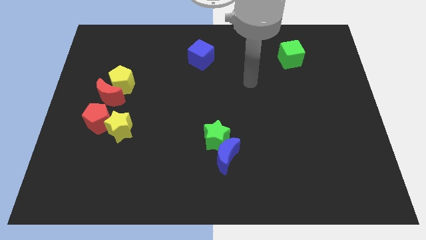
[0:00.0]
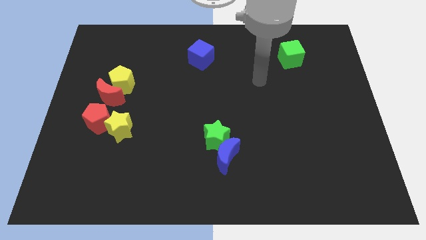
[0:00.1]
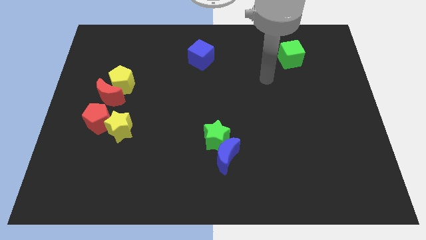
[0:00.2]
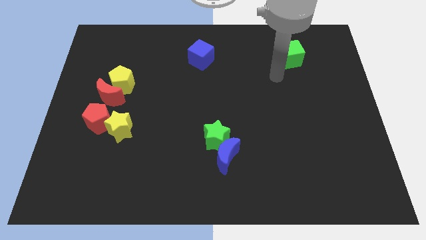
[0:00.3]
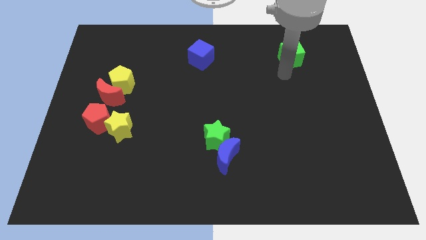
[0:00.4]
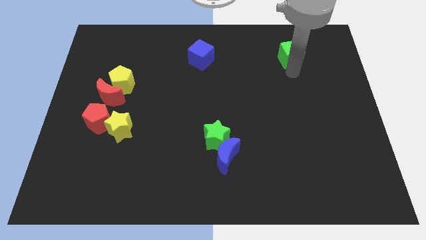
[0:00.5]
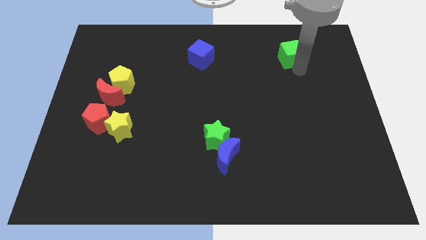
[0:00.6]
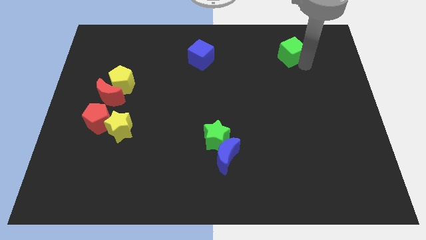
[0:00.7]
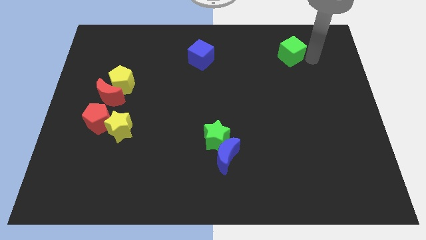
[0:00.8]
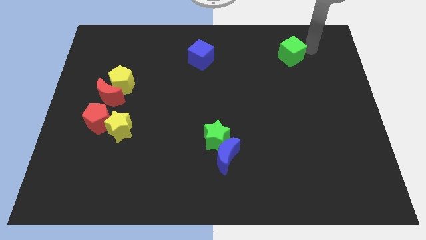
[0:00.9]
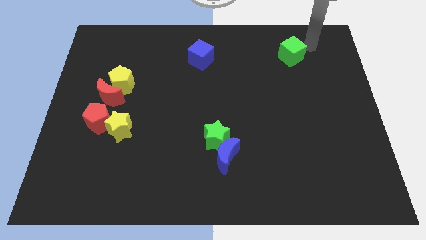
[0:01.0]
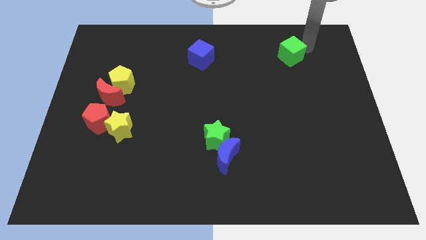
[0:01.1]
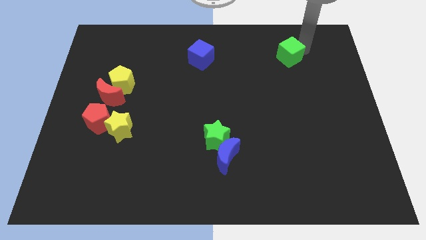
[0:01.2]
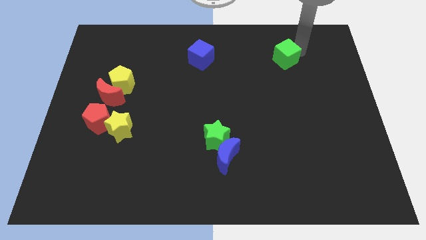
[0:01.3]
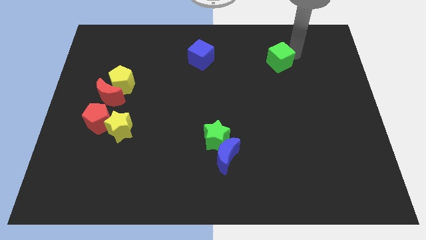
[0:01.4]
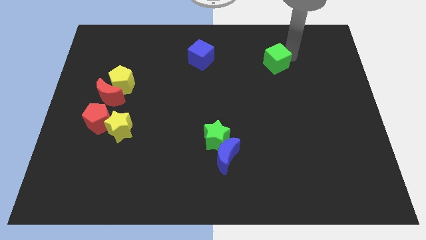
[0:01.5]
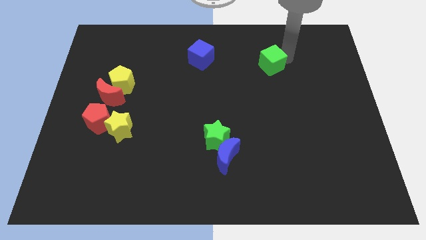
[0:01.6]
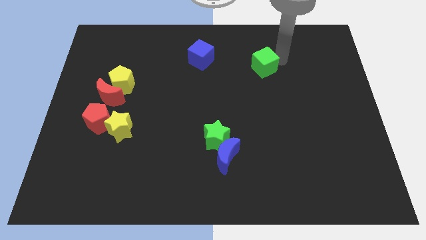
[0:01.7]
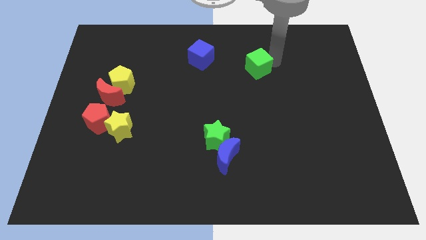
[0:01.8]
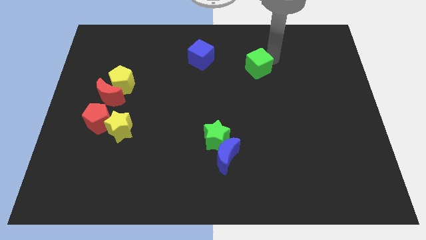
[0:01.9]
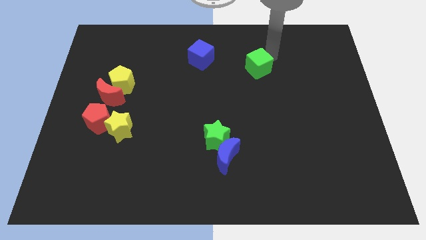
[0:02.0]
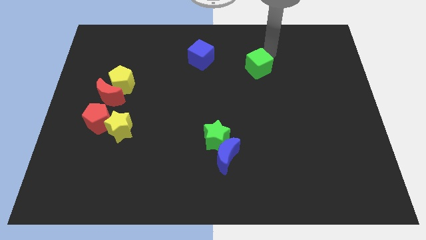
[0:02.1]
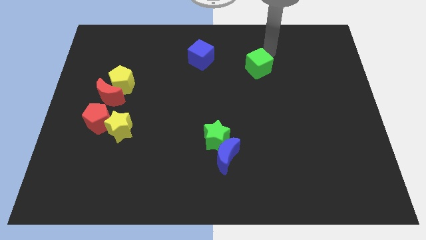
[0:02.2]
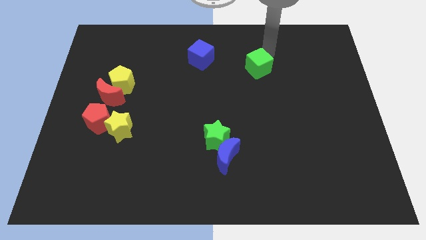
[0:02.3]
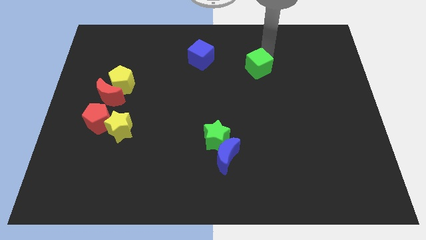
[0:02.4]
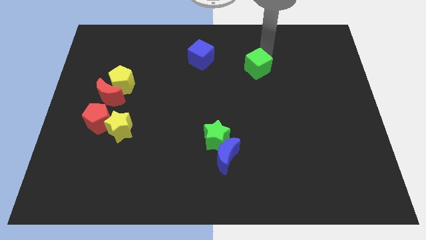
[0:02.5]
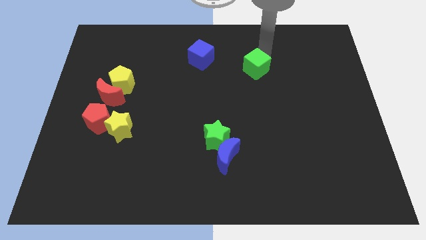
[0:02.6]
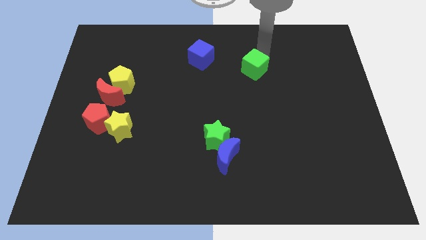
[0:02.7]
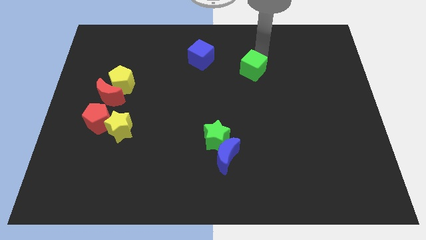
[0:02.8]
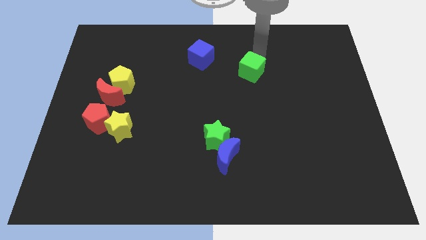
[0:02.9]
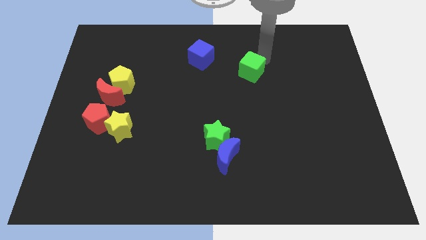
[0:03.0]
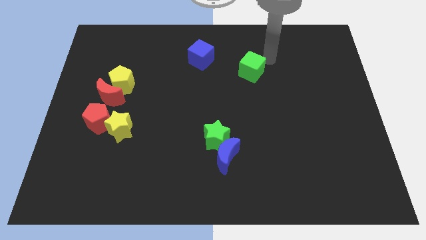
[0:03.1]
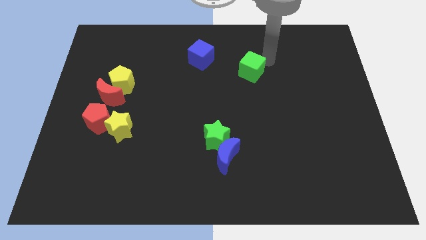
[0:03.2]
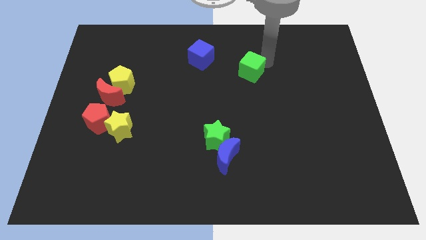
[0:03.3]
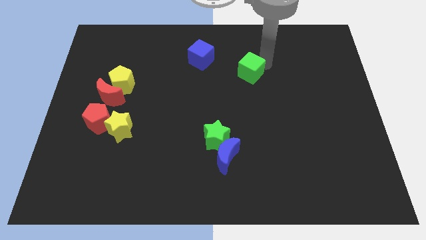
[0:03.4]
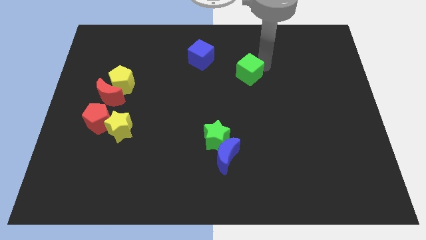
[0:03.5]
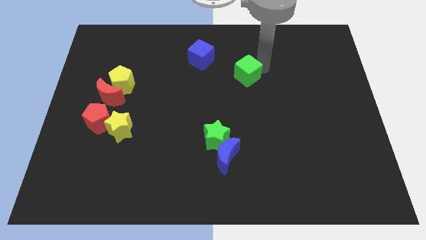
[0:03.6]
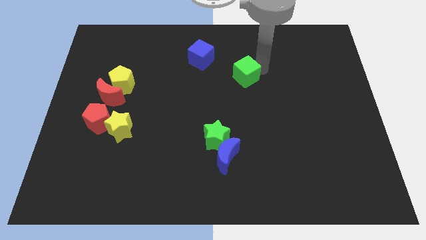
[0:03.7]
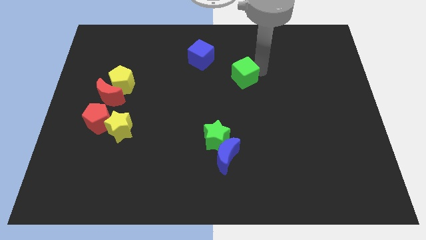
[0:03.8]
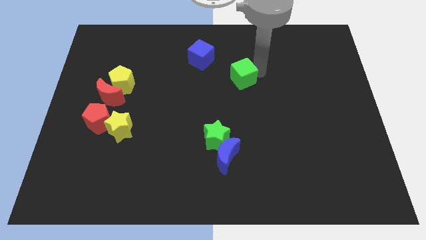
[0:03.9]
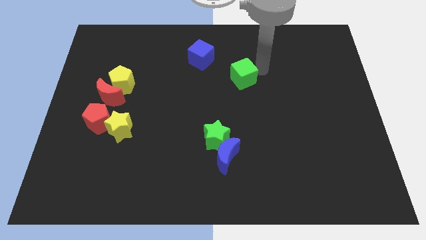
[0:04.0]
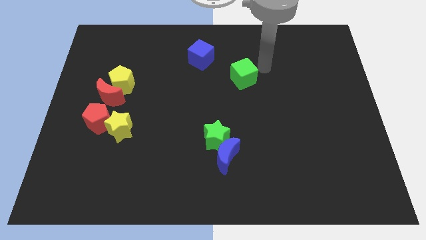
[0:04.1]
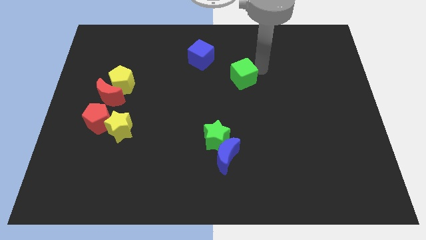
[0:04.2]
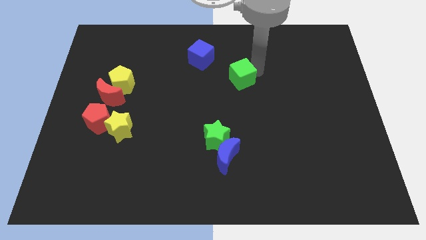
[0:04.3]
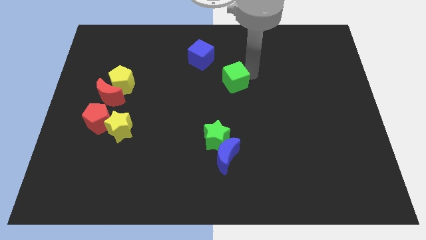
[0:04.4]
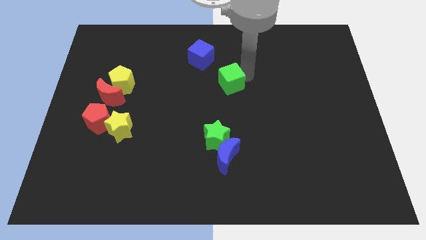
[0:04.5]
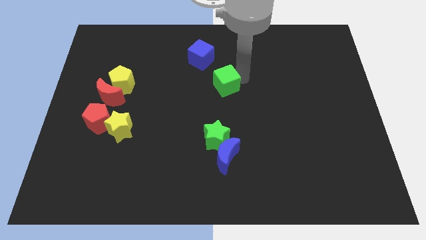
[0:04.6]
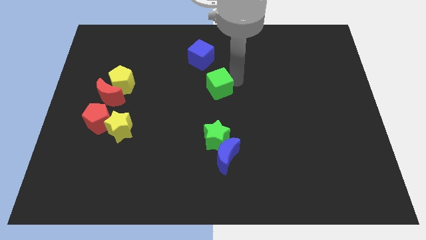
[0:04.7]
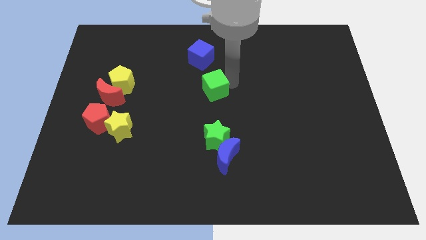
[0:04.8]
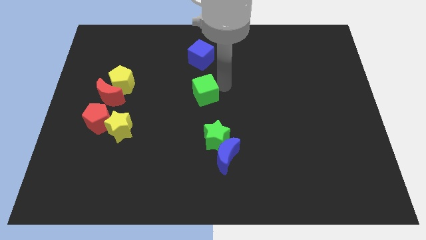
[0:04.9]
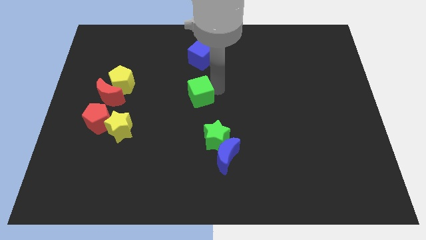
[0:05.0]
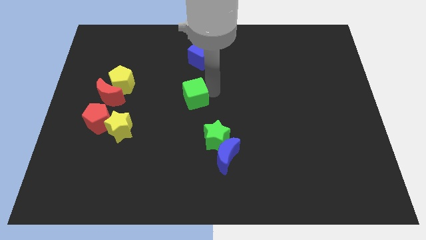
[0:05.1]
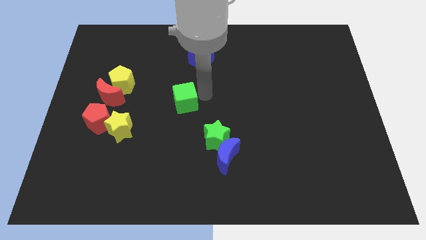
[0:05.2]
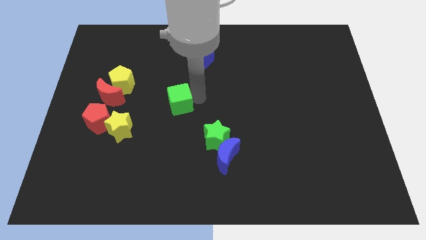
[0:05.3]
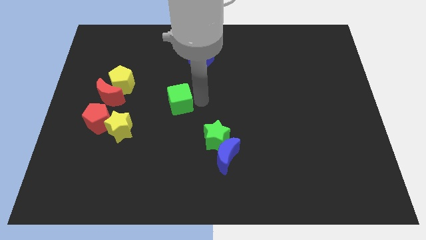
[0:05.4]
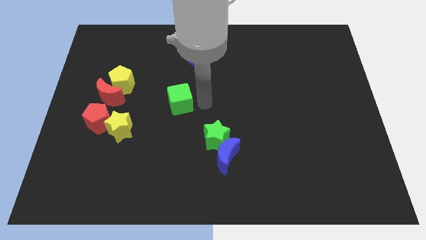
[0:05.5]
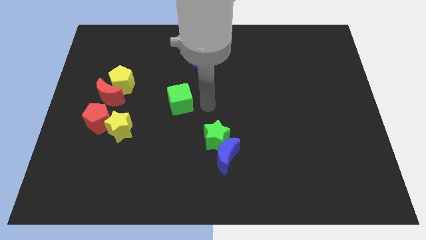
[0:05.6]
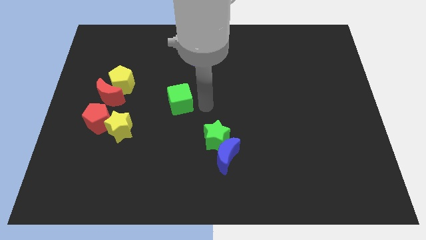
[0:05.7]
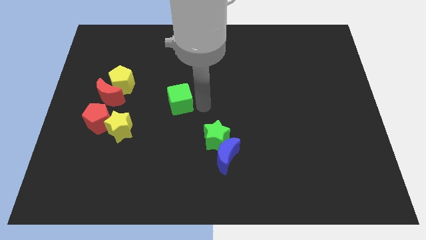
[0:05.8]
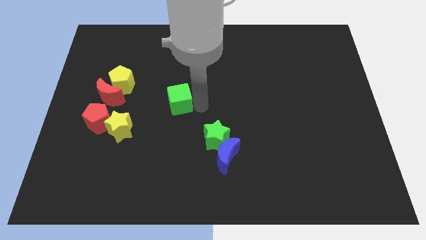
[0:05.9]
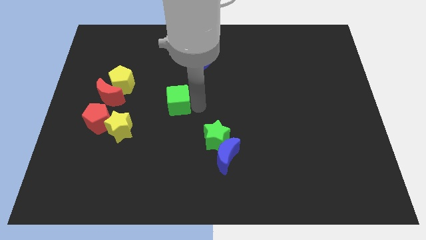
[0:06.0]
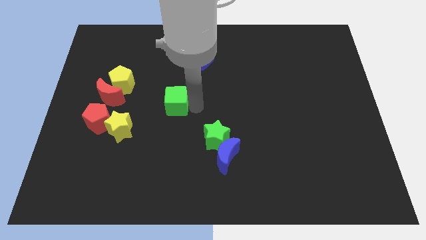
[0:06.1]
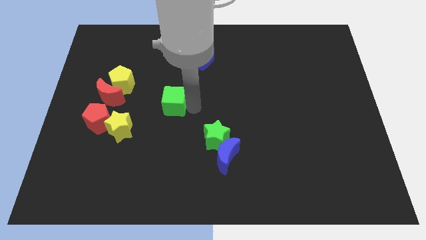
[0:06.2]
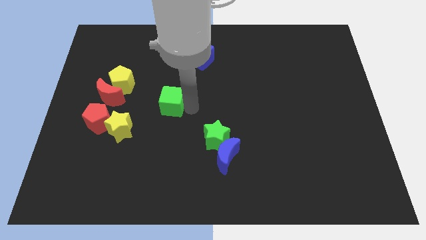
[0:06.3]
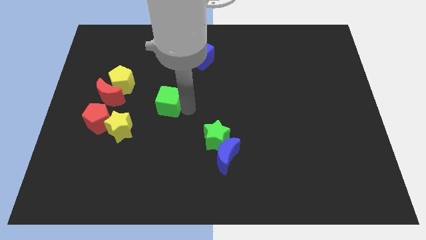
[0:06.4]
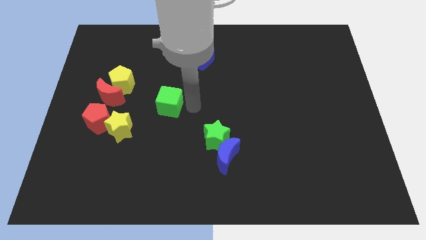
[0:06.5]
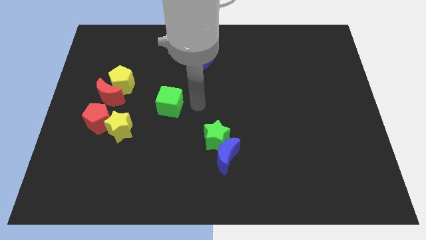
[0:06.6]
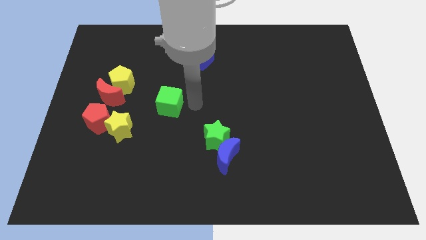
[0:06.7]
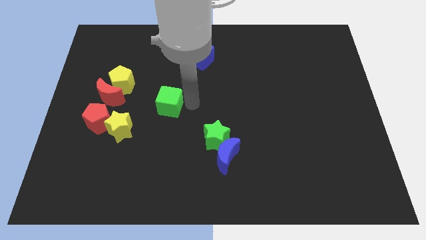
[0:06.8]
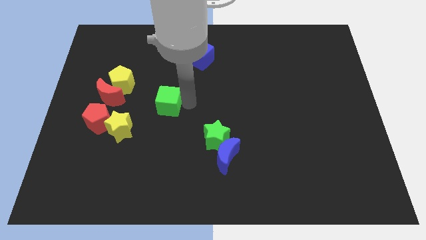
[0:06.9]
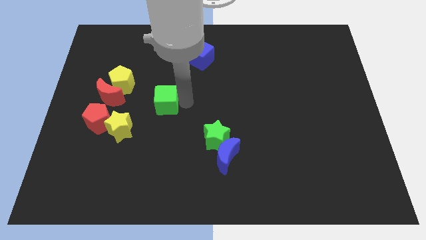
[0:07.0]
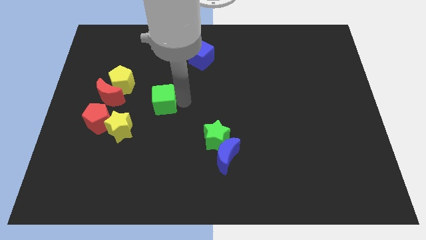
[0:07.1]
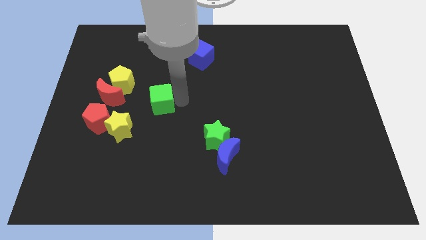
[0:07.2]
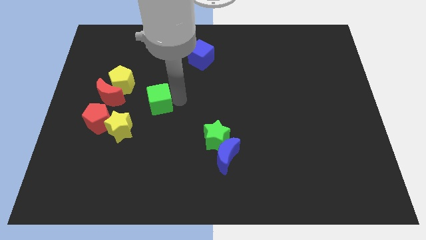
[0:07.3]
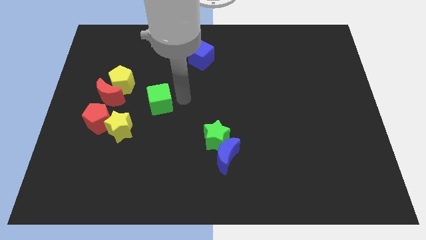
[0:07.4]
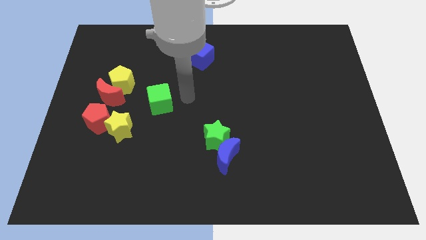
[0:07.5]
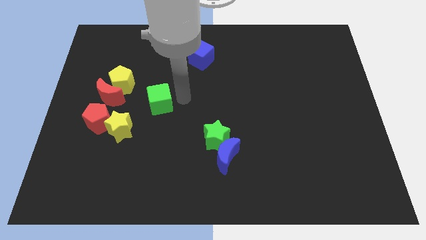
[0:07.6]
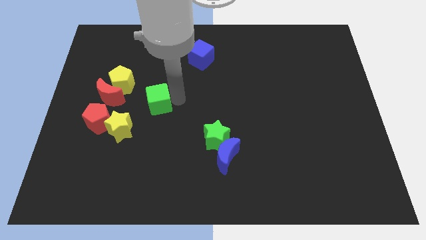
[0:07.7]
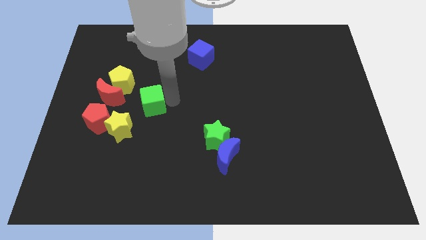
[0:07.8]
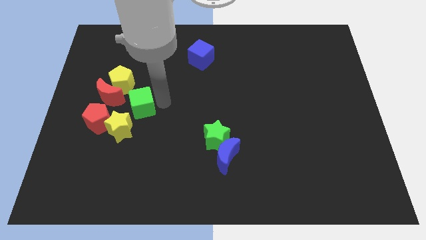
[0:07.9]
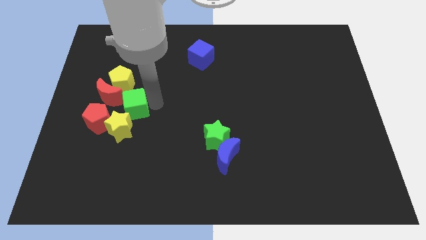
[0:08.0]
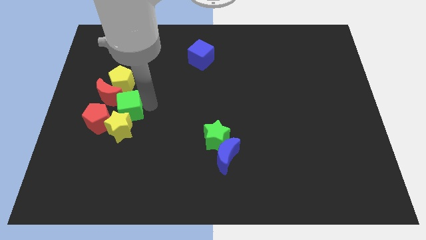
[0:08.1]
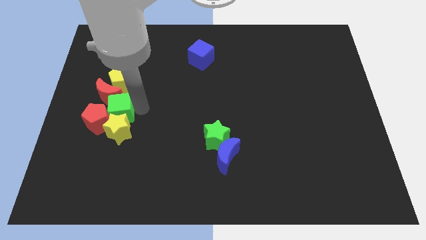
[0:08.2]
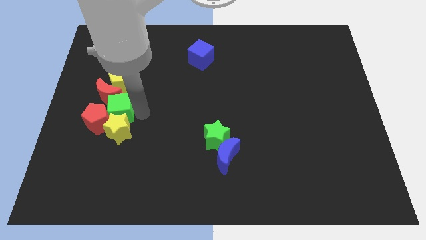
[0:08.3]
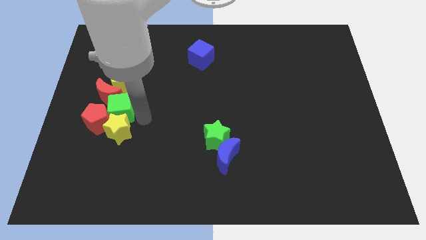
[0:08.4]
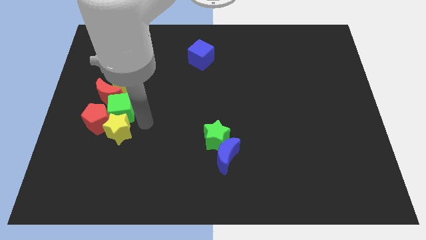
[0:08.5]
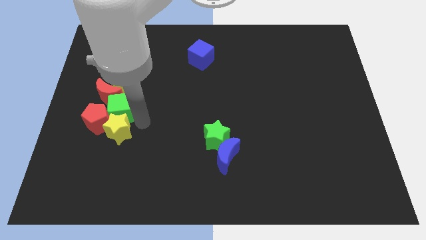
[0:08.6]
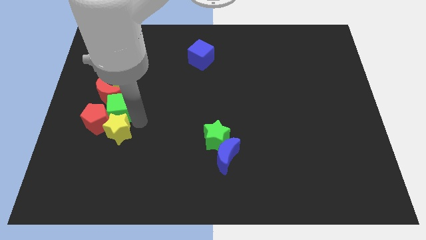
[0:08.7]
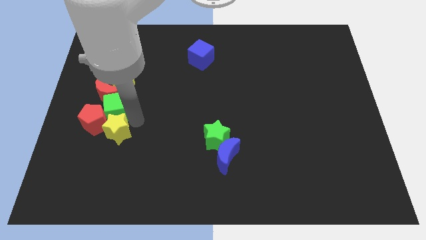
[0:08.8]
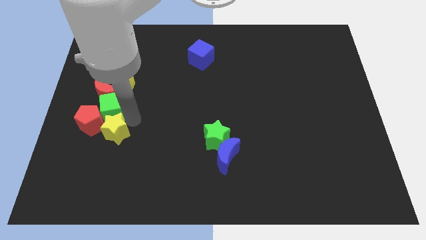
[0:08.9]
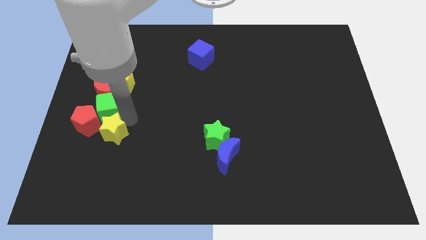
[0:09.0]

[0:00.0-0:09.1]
push the green cube diagonally down and to the left of the yellow pentagon
